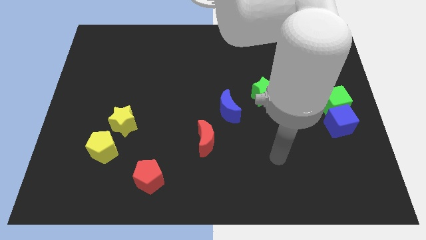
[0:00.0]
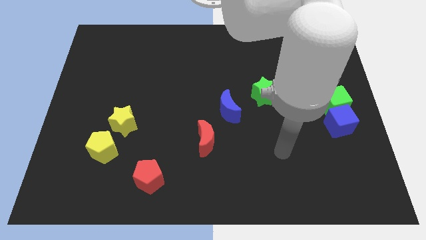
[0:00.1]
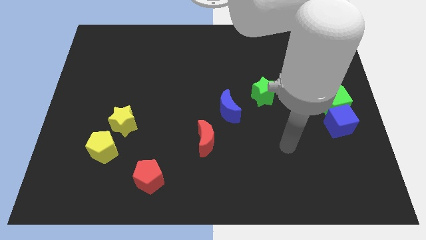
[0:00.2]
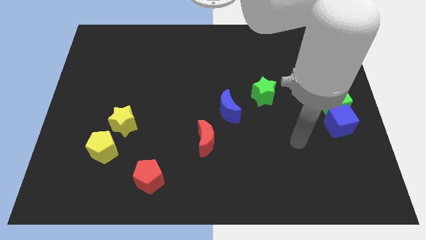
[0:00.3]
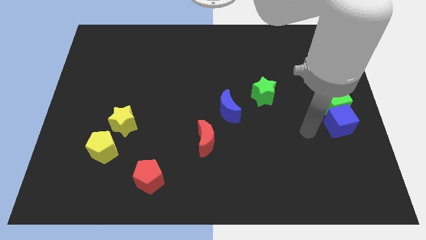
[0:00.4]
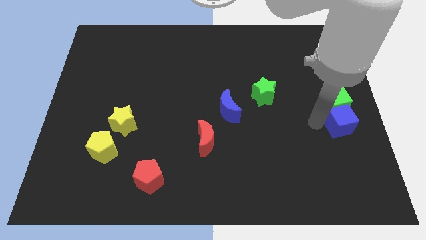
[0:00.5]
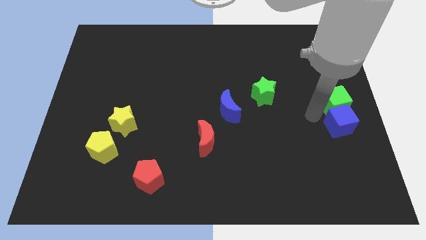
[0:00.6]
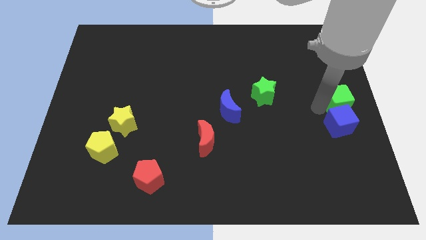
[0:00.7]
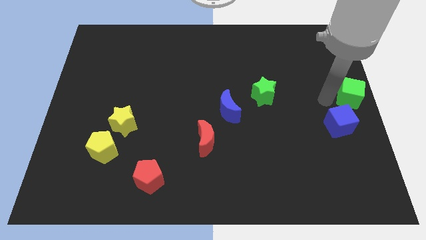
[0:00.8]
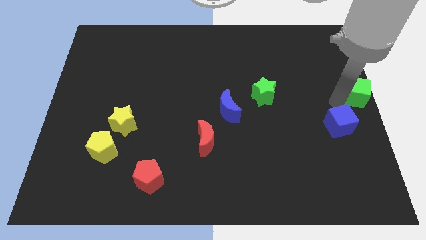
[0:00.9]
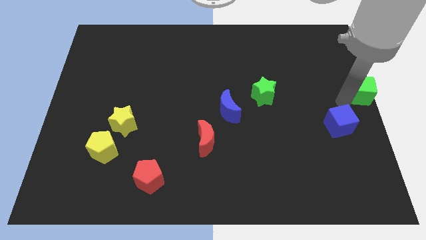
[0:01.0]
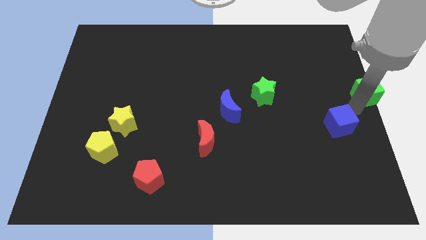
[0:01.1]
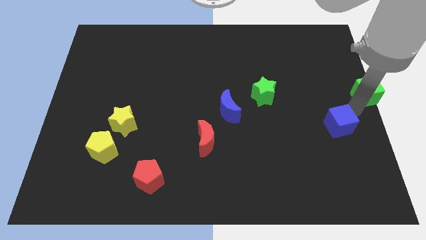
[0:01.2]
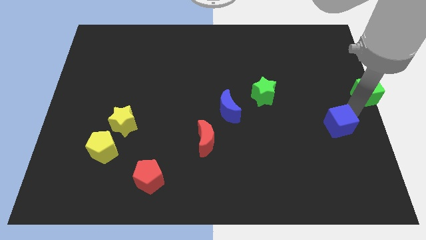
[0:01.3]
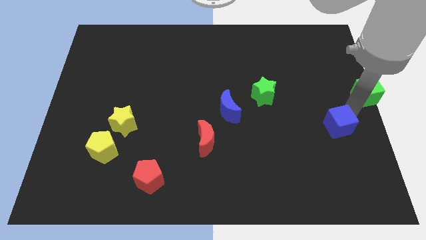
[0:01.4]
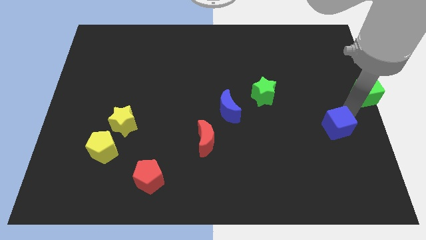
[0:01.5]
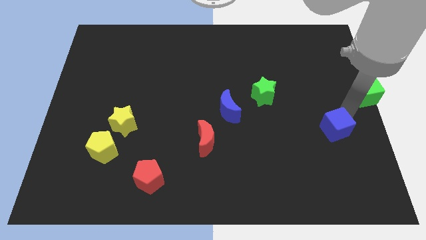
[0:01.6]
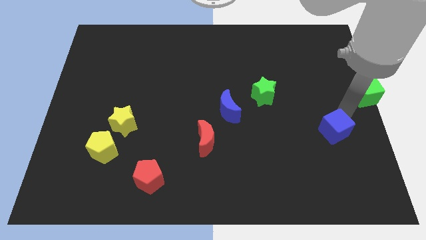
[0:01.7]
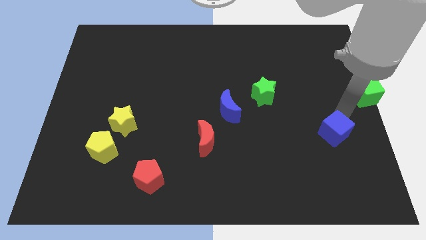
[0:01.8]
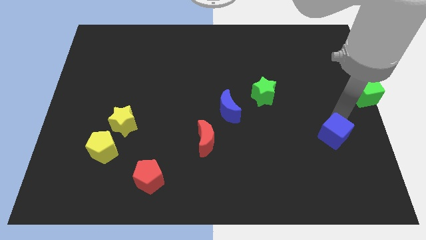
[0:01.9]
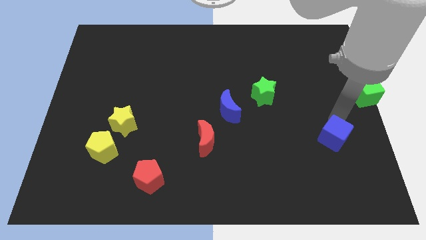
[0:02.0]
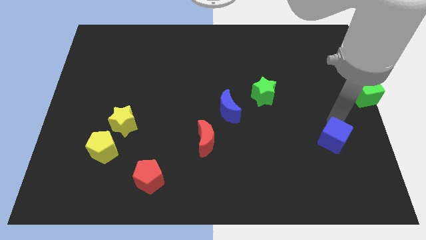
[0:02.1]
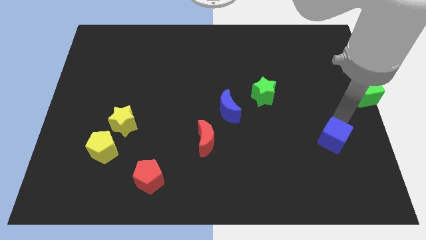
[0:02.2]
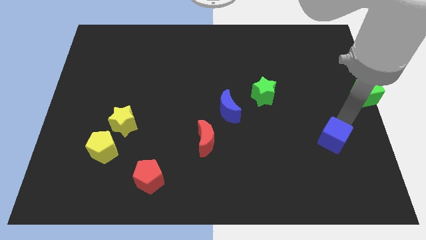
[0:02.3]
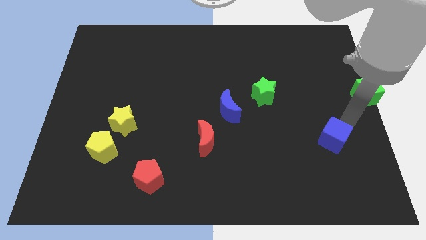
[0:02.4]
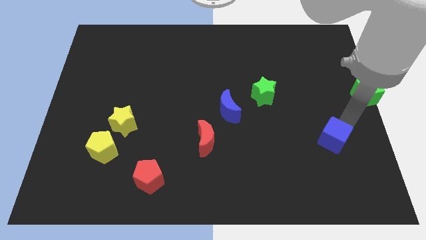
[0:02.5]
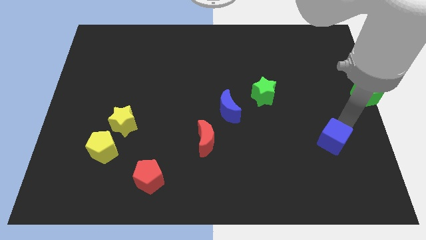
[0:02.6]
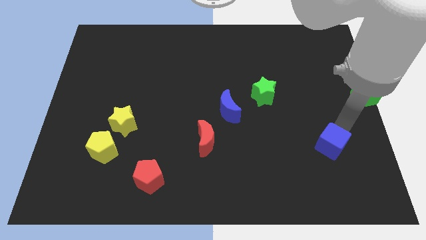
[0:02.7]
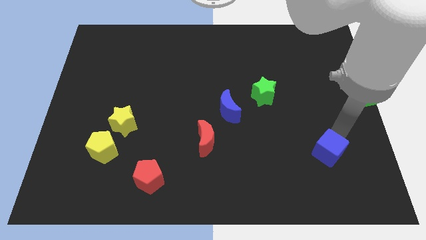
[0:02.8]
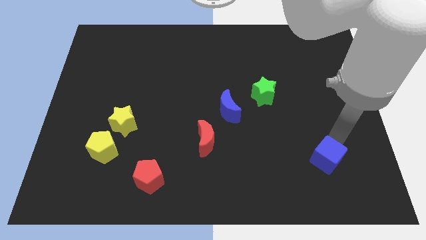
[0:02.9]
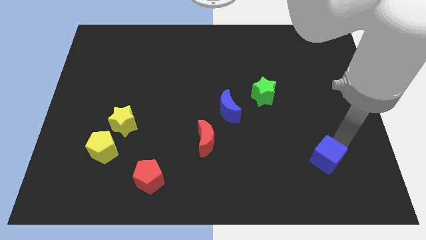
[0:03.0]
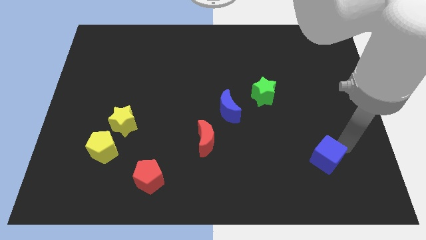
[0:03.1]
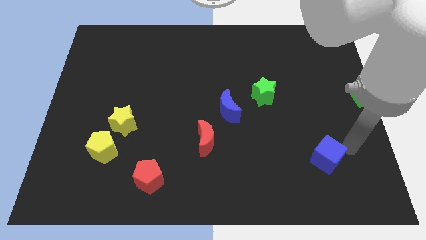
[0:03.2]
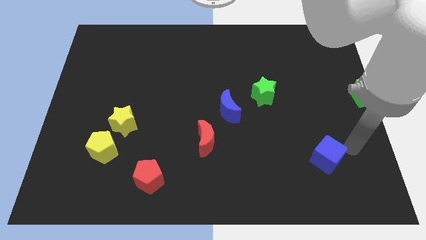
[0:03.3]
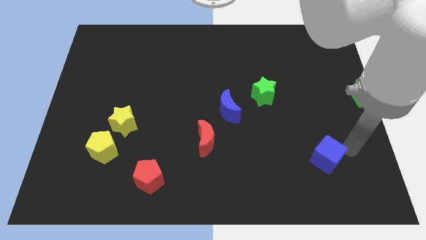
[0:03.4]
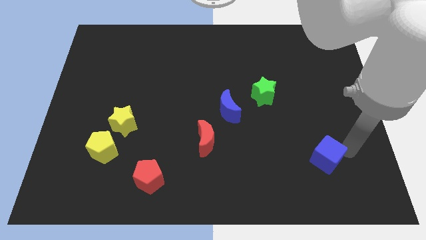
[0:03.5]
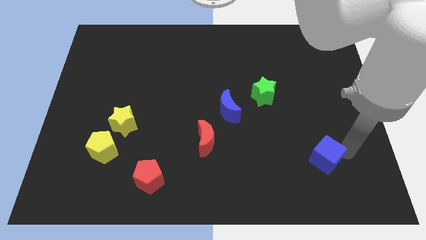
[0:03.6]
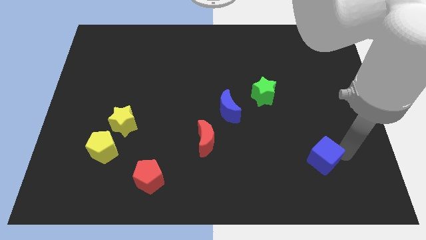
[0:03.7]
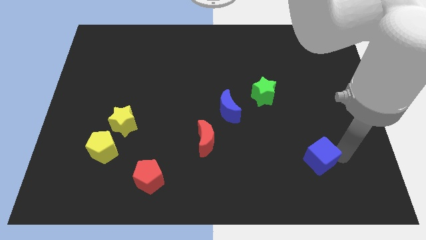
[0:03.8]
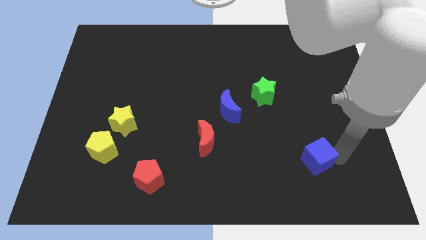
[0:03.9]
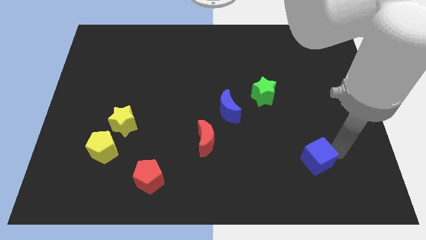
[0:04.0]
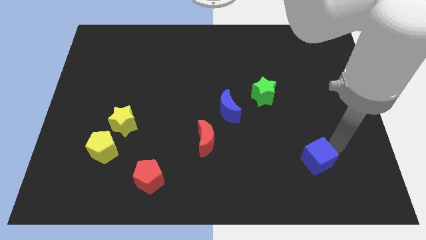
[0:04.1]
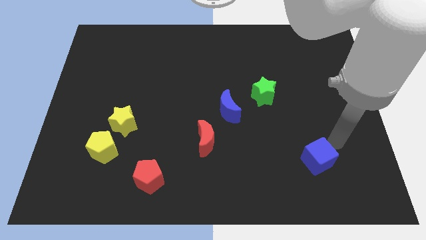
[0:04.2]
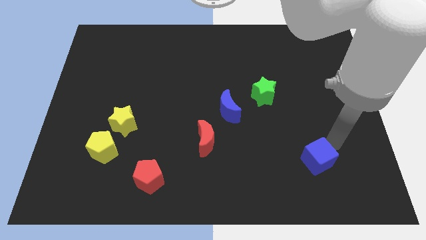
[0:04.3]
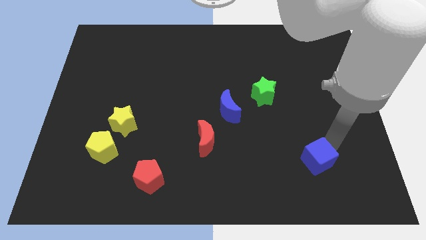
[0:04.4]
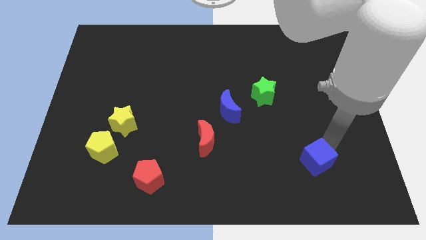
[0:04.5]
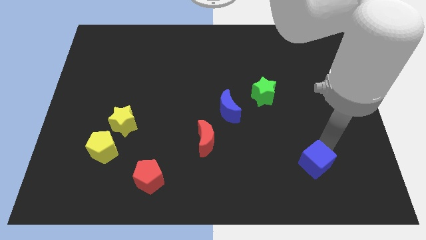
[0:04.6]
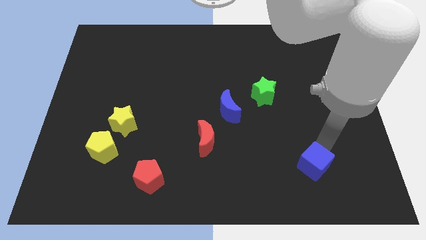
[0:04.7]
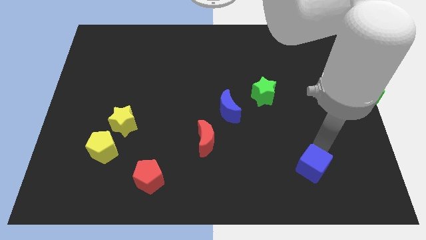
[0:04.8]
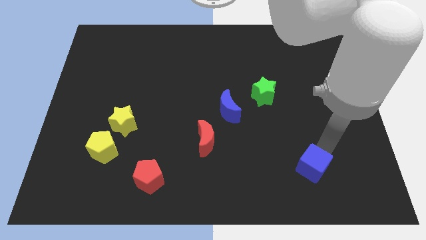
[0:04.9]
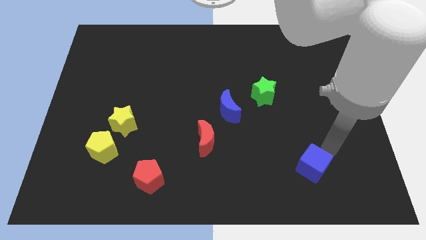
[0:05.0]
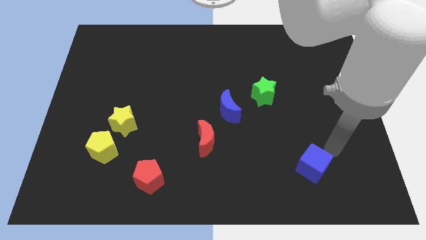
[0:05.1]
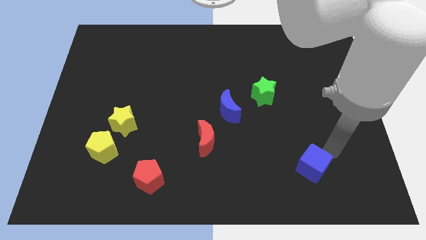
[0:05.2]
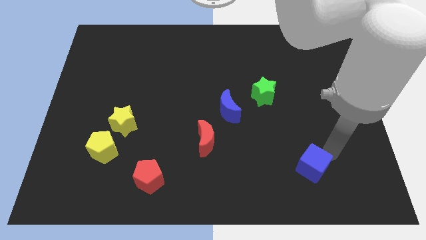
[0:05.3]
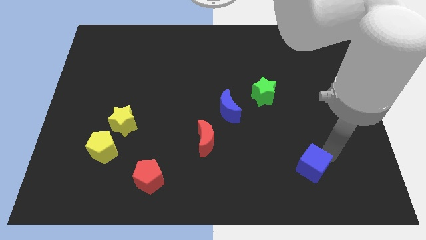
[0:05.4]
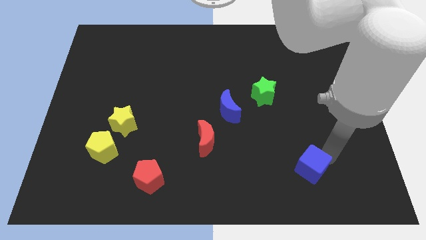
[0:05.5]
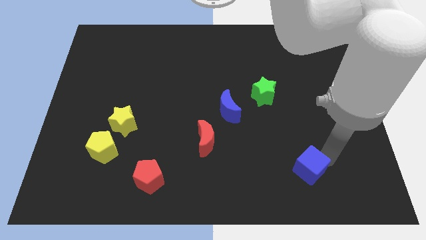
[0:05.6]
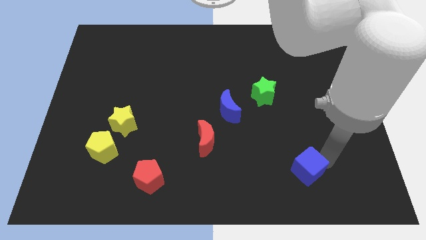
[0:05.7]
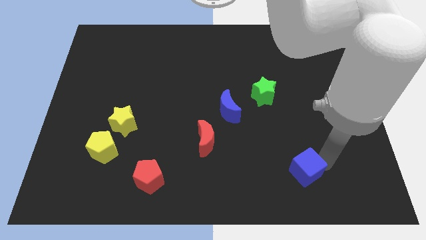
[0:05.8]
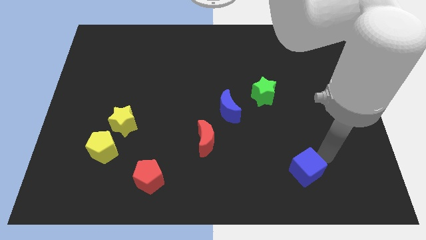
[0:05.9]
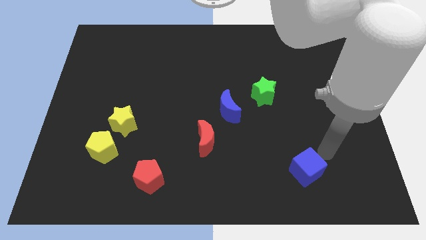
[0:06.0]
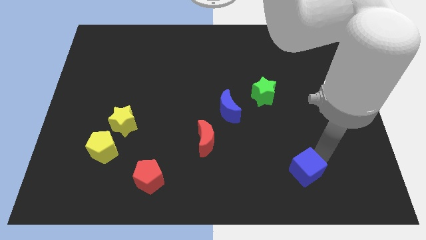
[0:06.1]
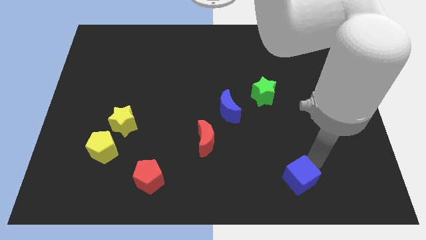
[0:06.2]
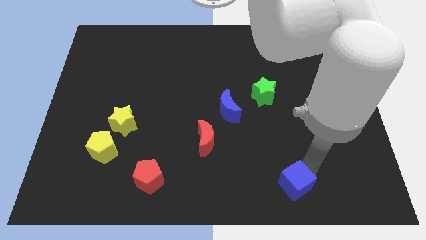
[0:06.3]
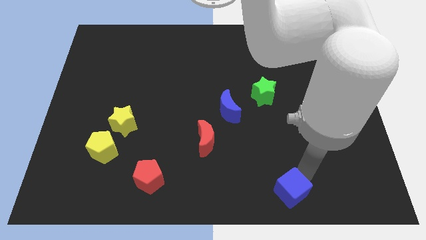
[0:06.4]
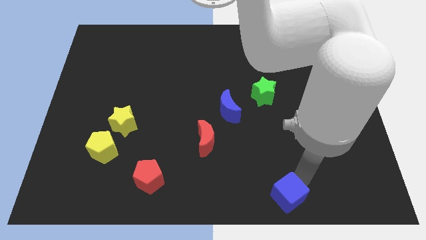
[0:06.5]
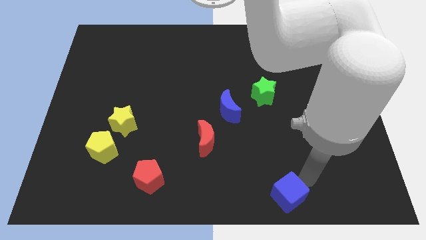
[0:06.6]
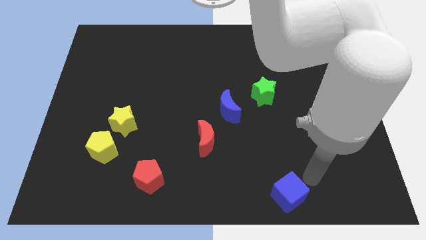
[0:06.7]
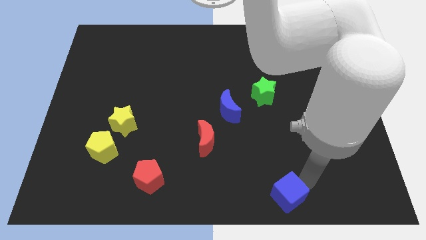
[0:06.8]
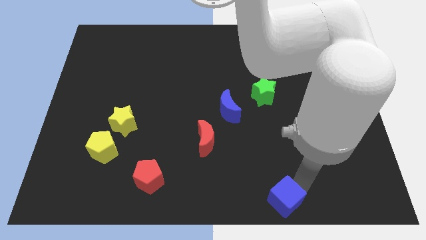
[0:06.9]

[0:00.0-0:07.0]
slide the blue cube to the bottom
